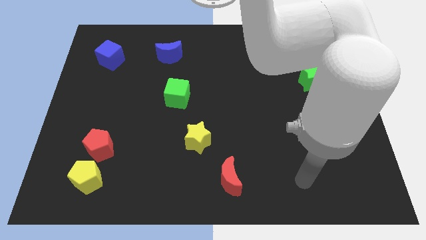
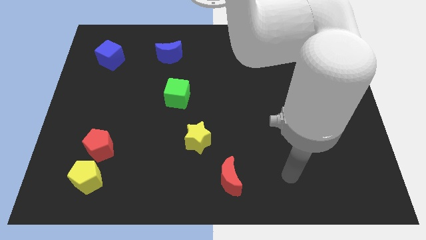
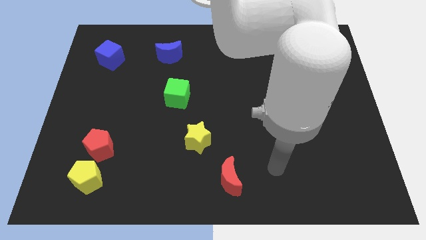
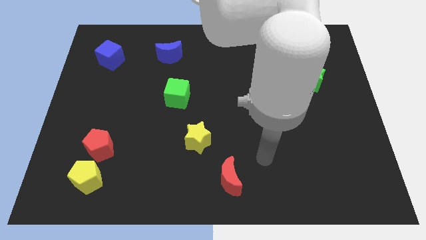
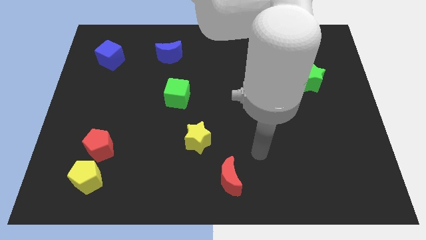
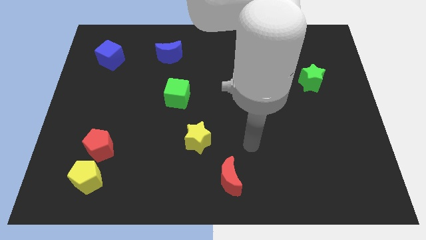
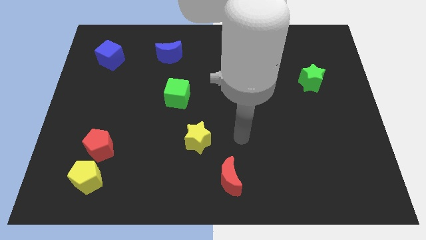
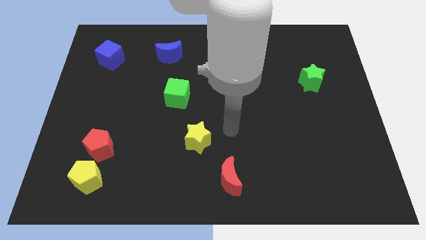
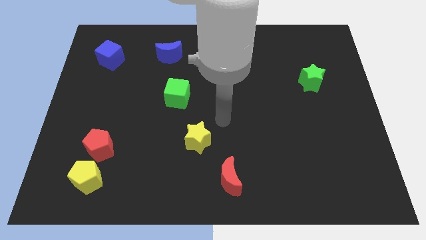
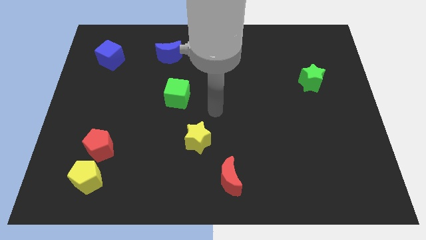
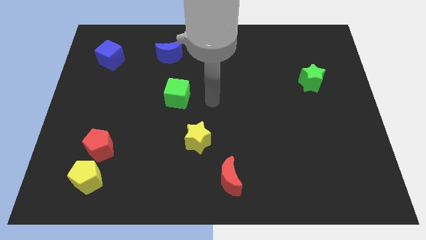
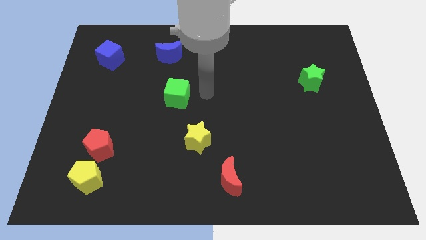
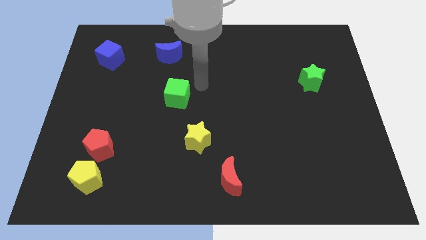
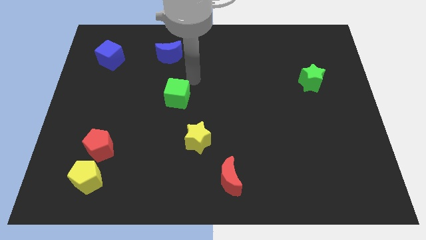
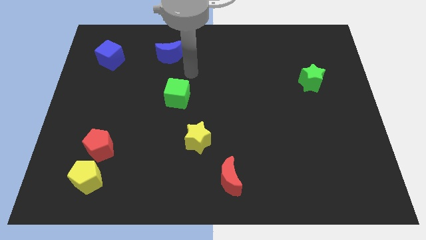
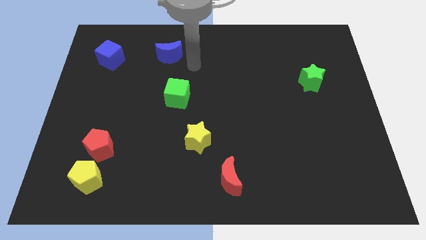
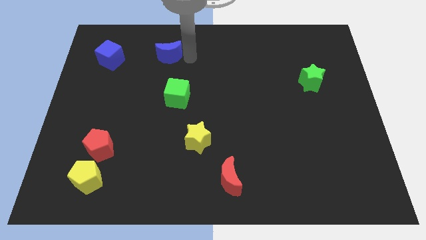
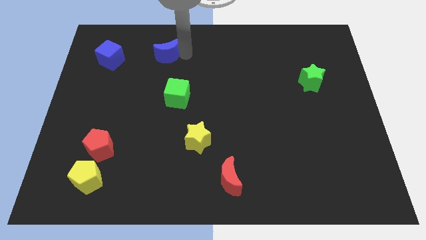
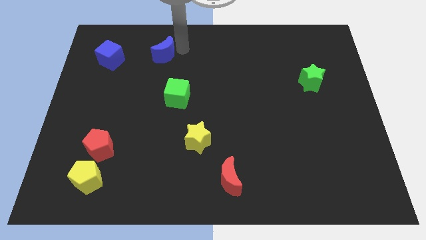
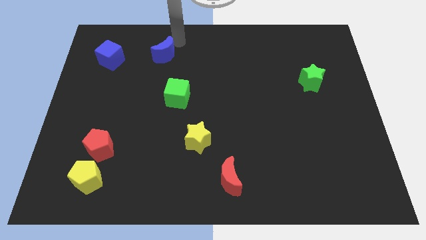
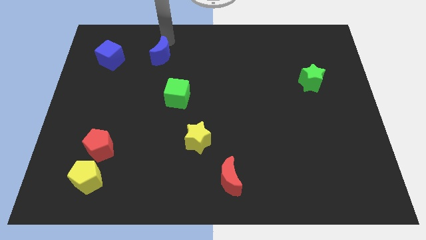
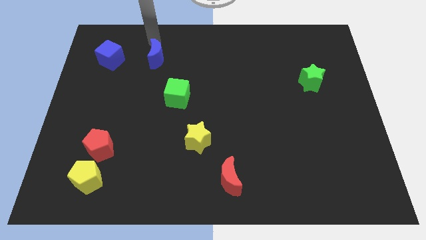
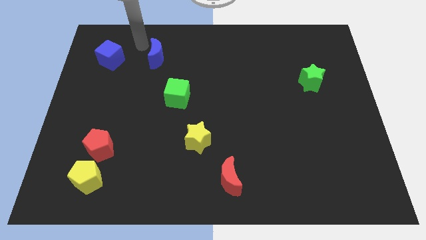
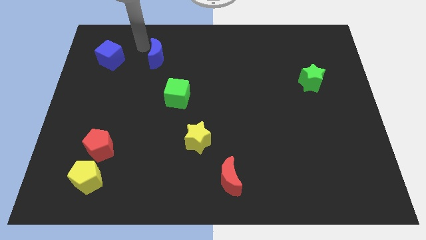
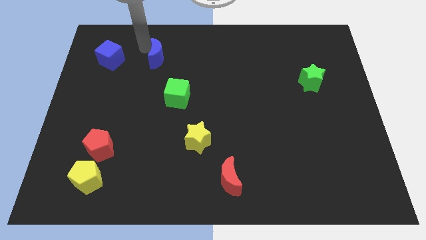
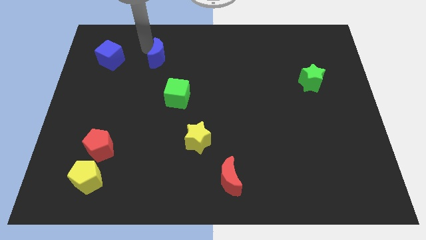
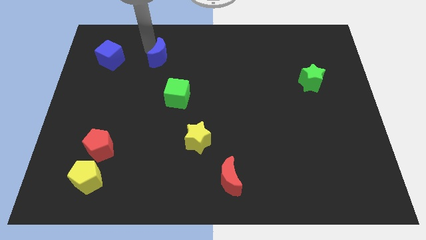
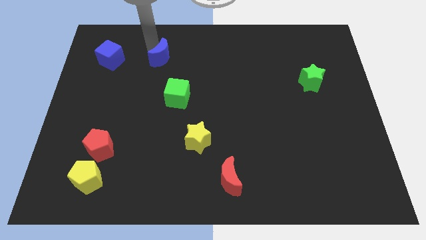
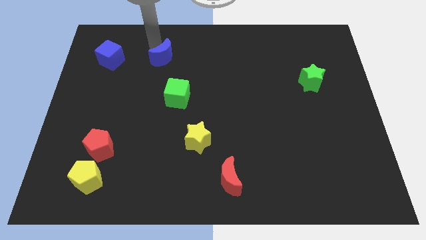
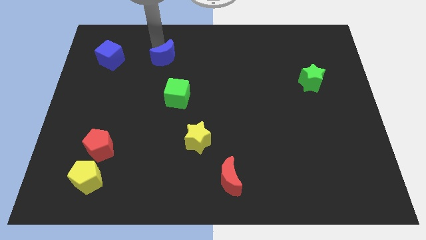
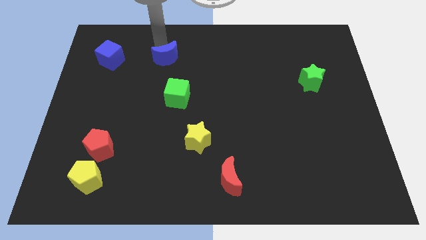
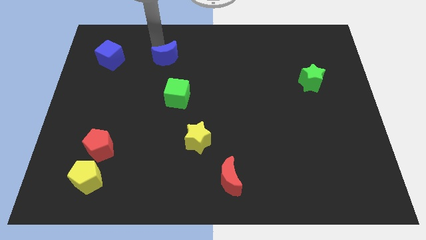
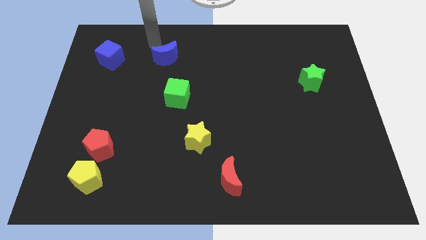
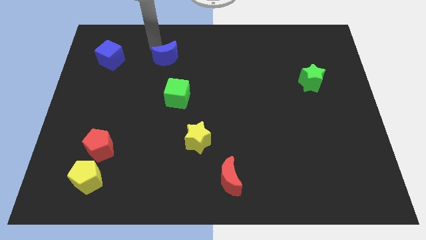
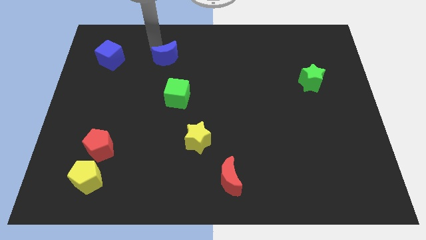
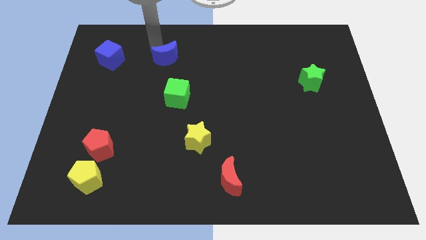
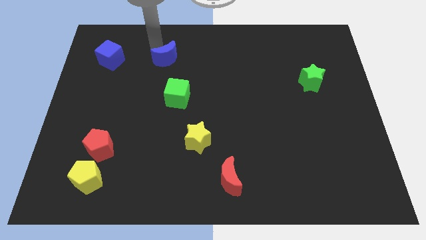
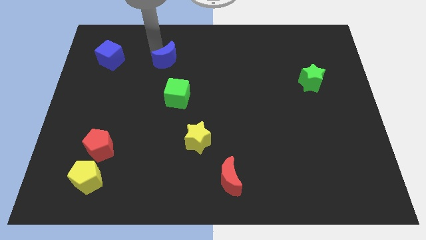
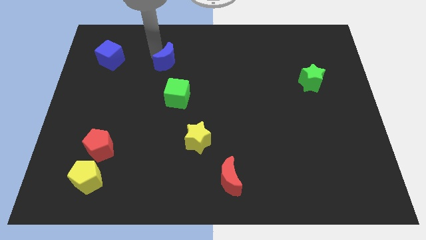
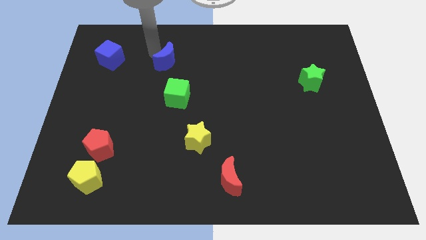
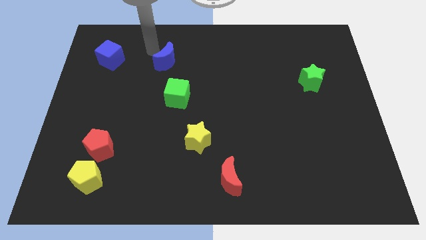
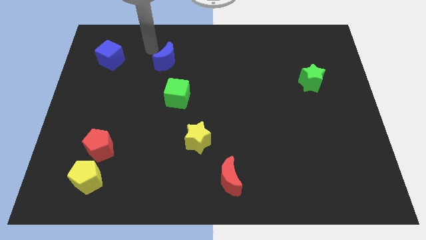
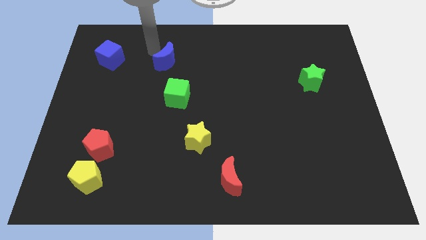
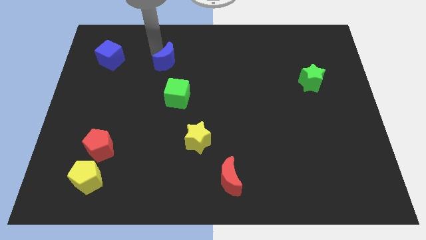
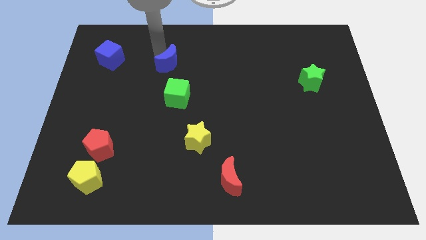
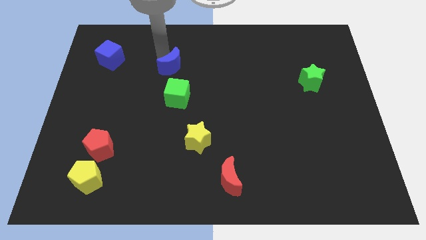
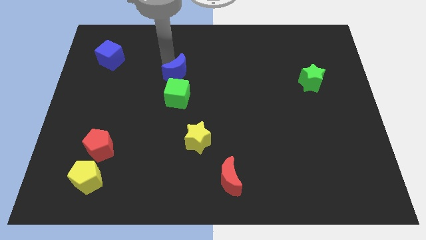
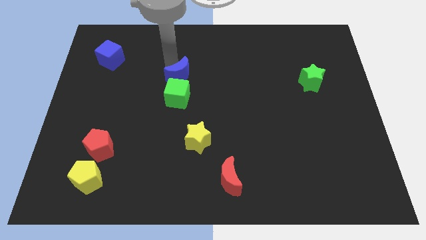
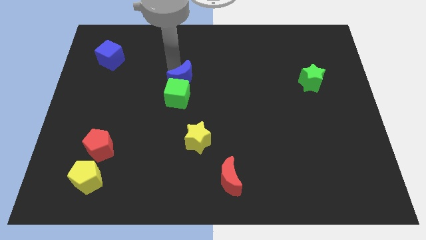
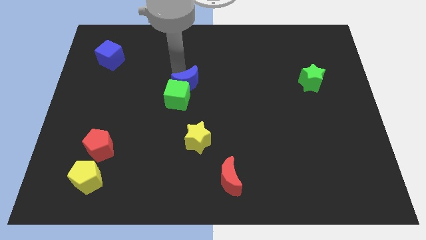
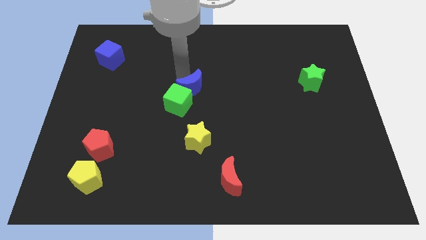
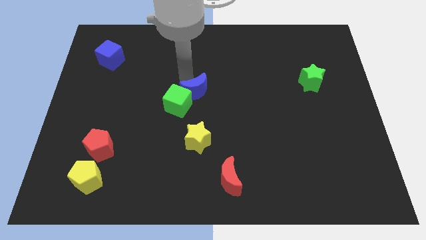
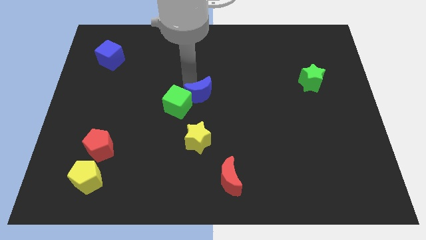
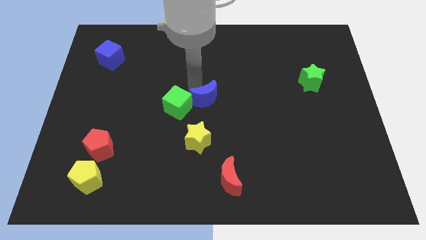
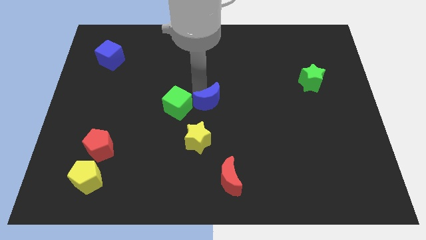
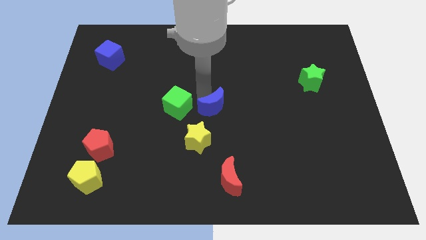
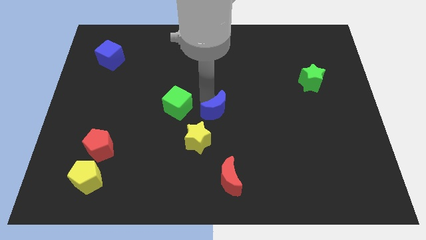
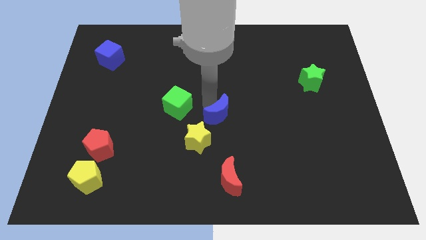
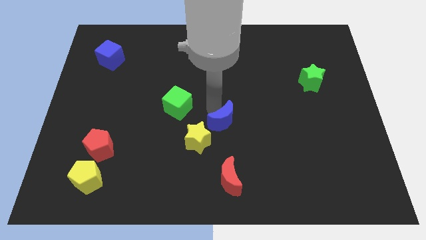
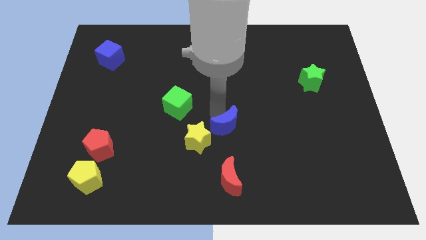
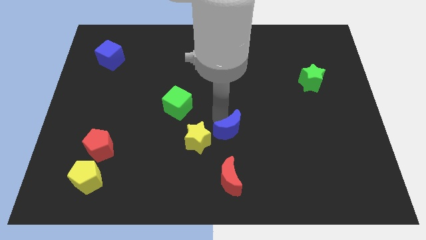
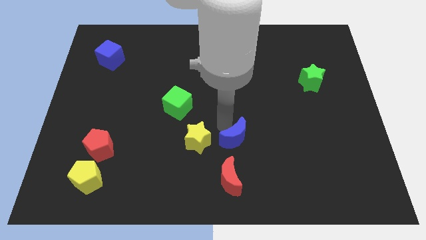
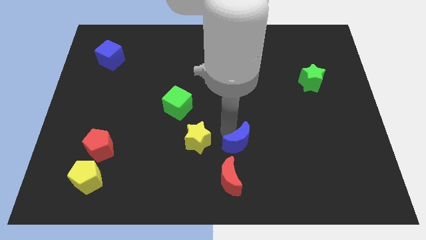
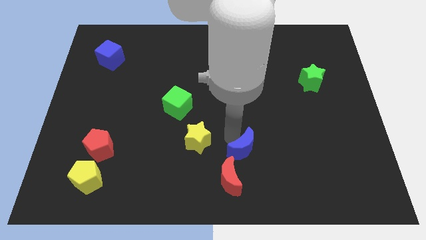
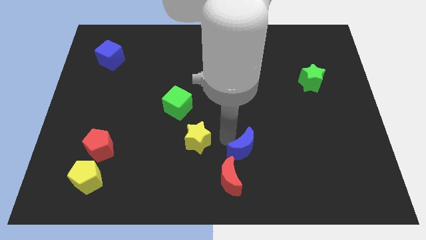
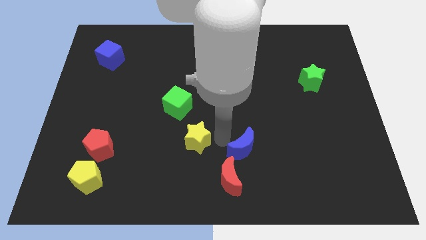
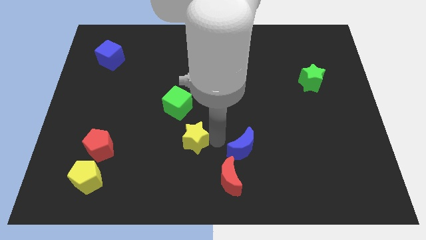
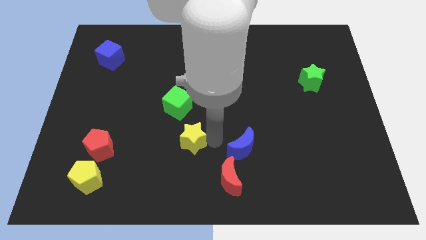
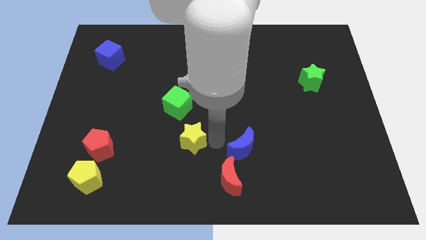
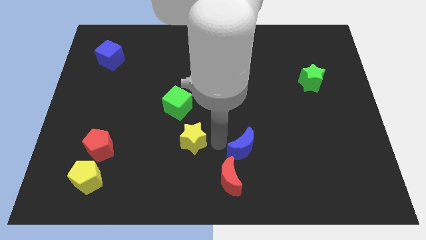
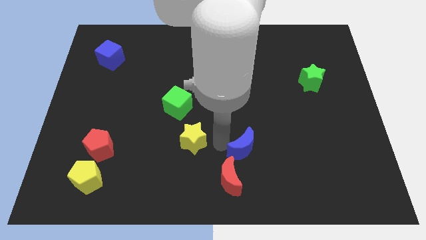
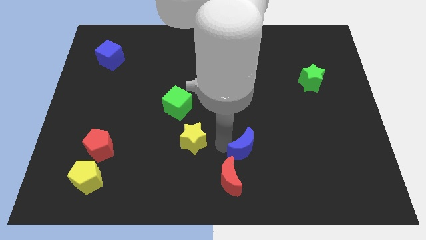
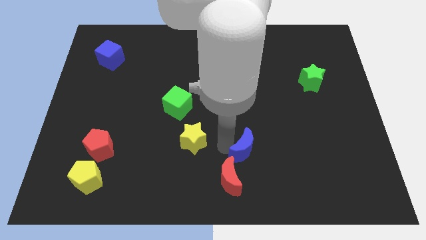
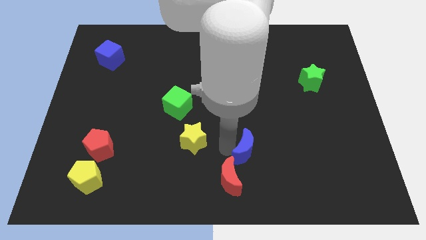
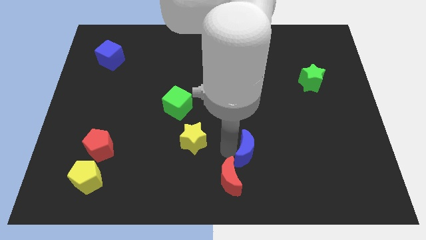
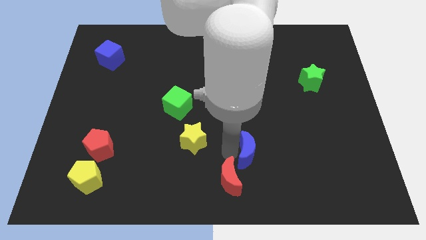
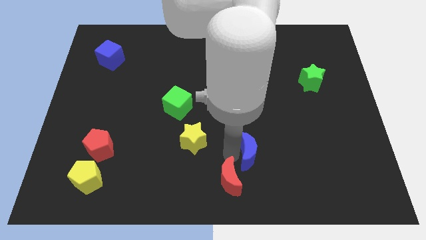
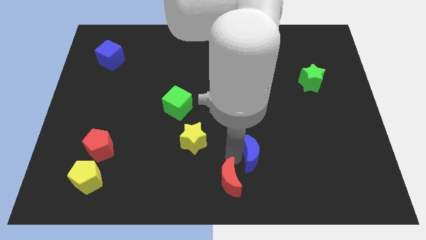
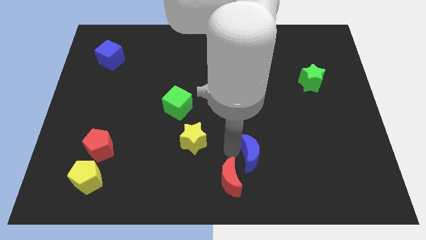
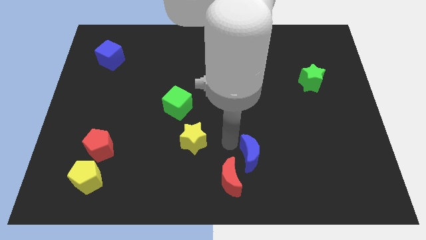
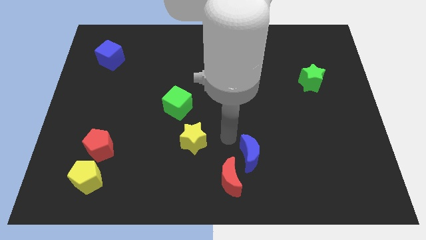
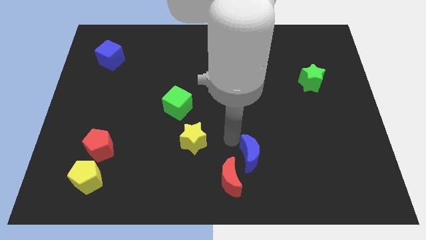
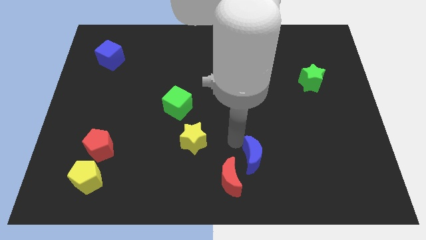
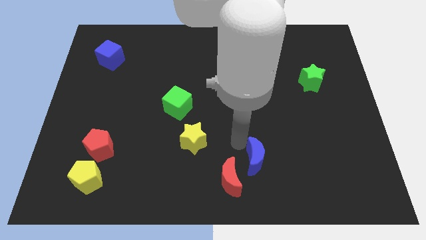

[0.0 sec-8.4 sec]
slide the blue moon right of the red moon
